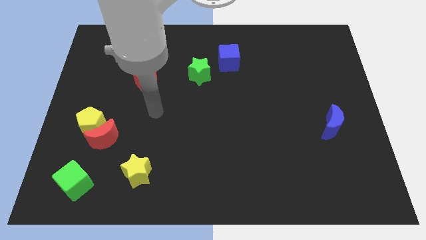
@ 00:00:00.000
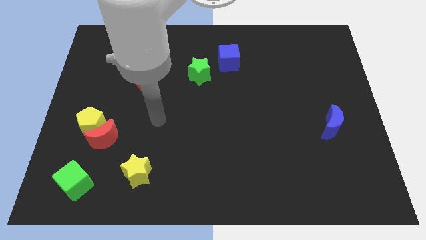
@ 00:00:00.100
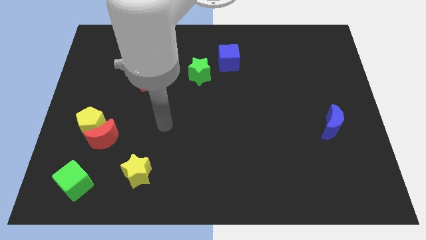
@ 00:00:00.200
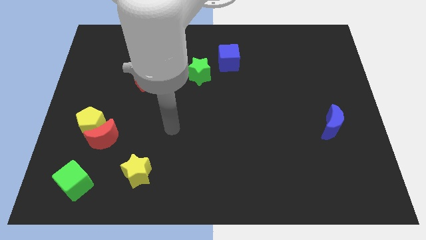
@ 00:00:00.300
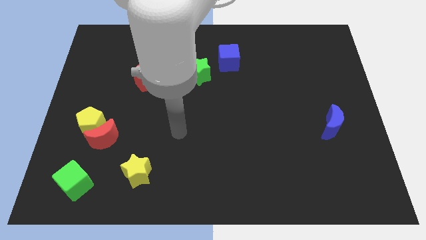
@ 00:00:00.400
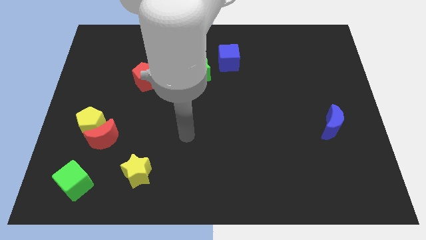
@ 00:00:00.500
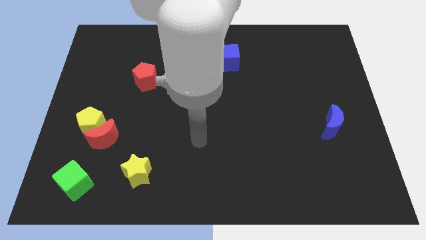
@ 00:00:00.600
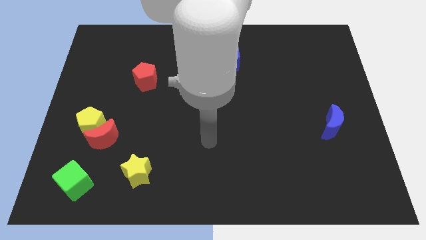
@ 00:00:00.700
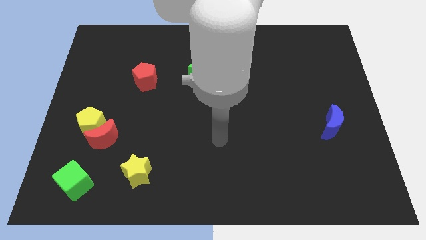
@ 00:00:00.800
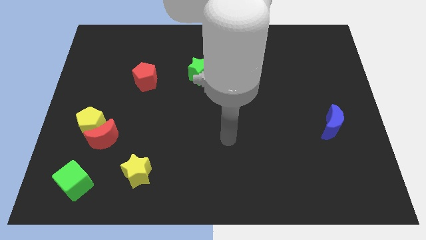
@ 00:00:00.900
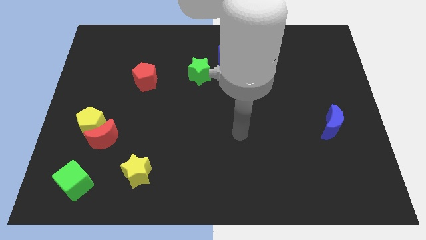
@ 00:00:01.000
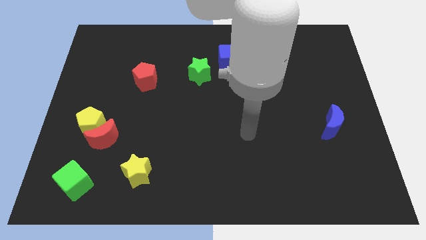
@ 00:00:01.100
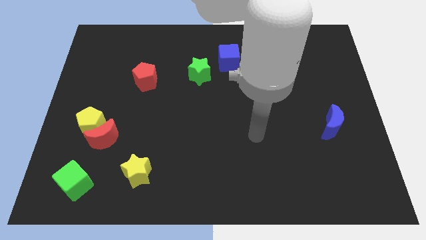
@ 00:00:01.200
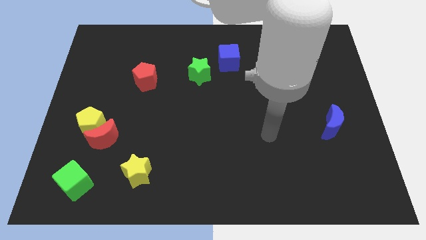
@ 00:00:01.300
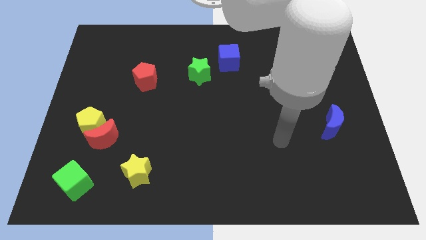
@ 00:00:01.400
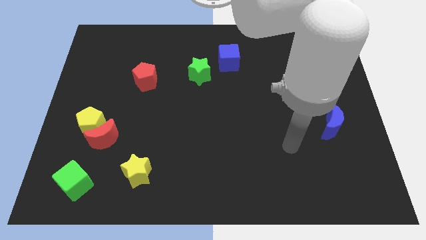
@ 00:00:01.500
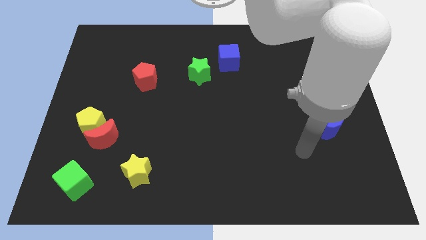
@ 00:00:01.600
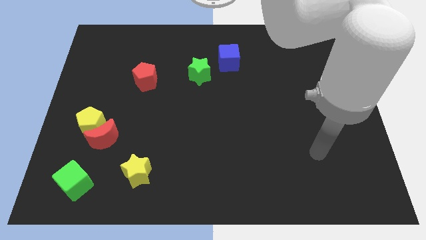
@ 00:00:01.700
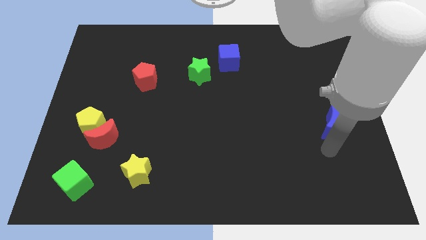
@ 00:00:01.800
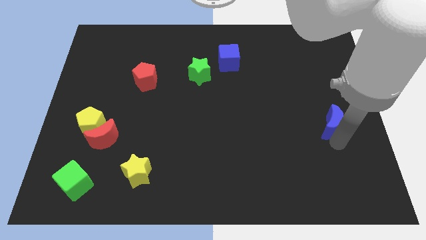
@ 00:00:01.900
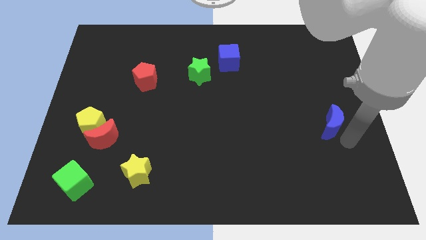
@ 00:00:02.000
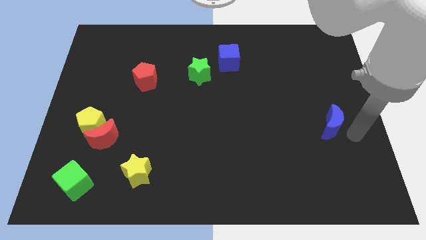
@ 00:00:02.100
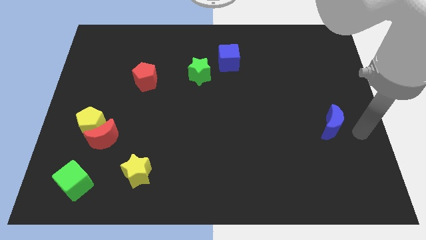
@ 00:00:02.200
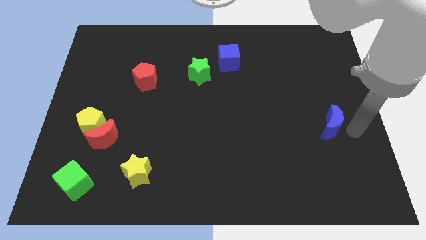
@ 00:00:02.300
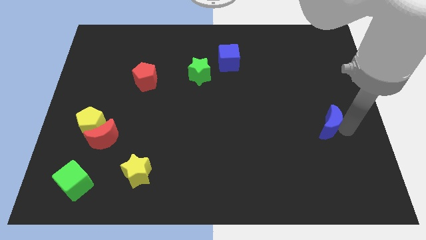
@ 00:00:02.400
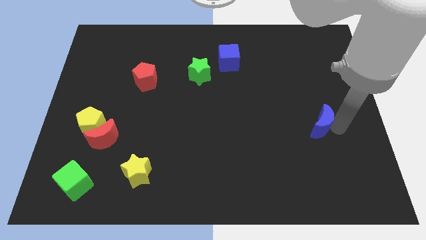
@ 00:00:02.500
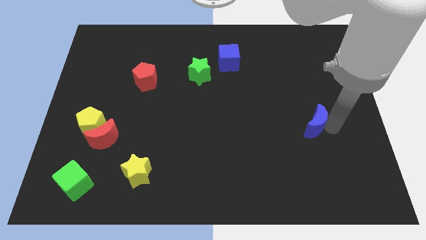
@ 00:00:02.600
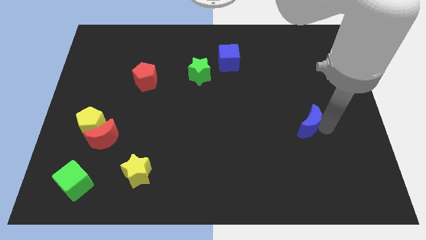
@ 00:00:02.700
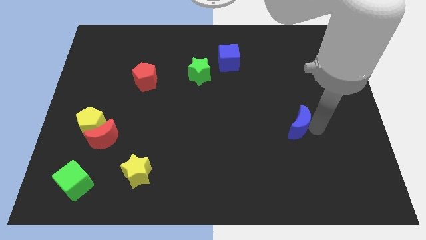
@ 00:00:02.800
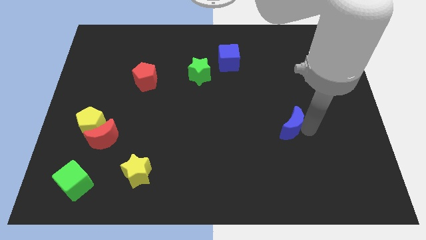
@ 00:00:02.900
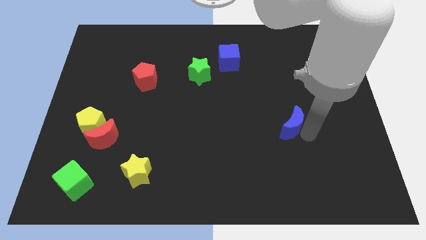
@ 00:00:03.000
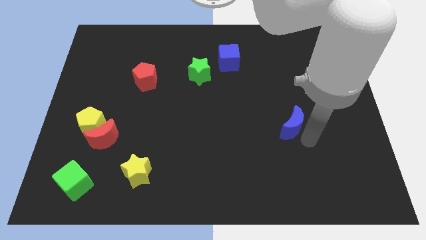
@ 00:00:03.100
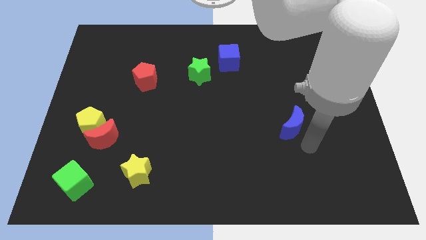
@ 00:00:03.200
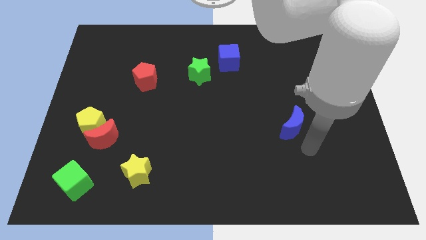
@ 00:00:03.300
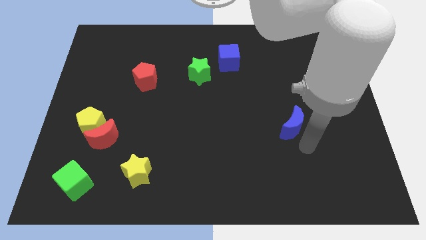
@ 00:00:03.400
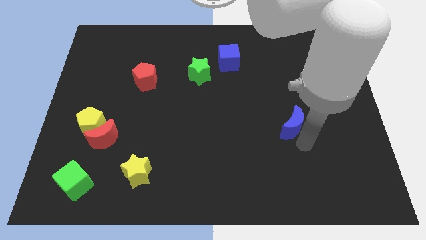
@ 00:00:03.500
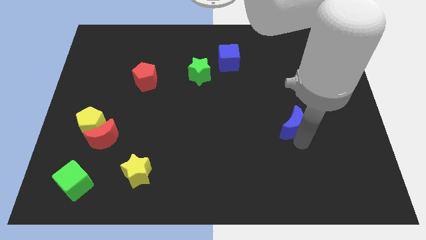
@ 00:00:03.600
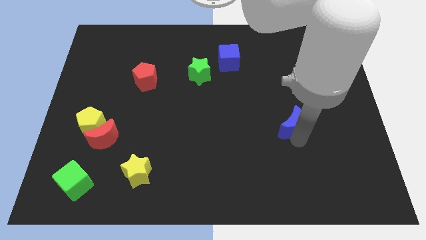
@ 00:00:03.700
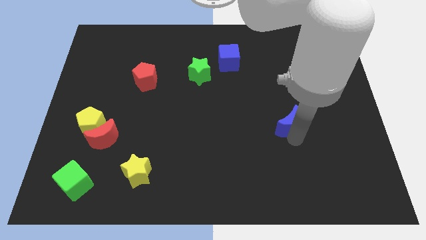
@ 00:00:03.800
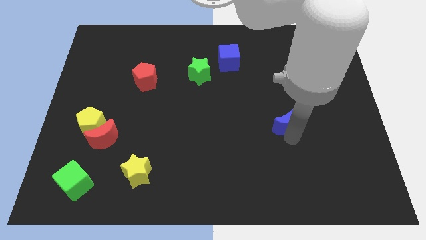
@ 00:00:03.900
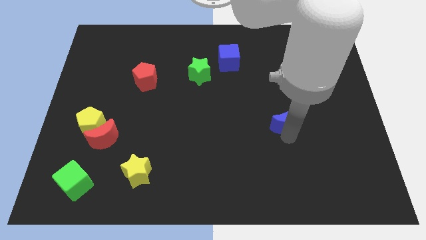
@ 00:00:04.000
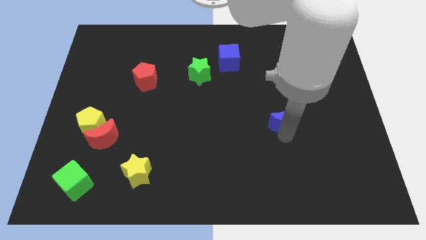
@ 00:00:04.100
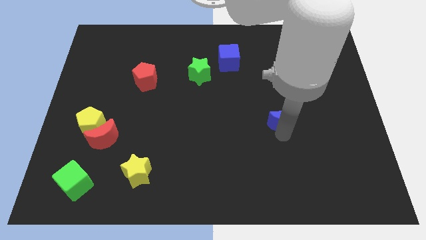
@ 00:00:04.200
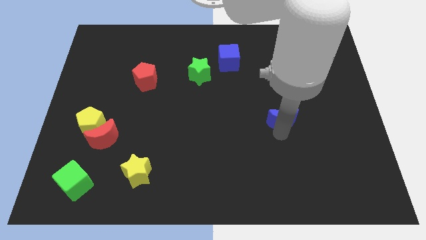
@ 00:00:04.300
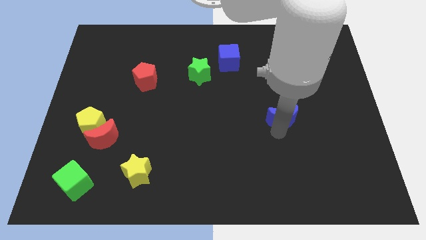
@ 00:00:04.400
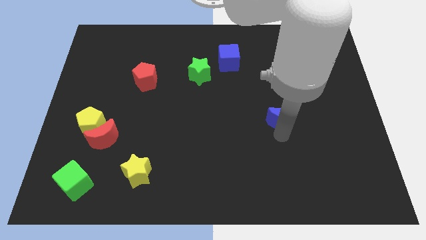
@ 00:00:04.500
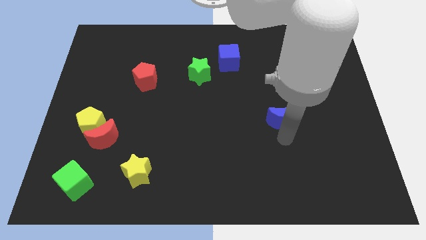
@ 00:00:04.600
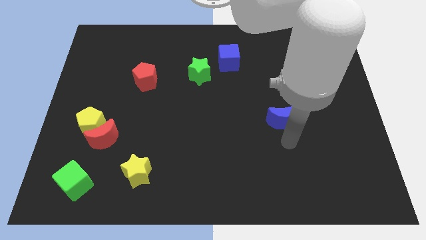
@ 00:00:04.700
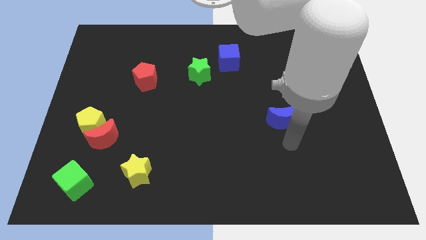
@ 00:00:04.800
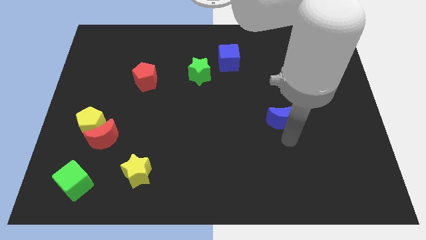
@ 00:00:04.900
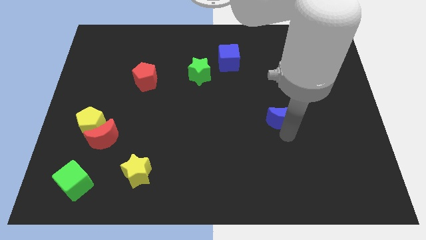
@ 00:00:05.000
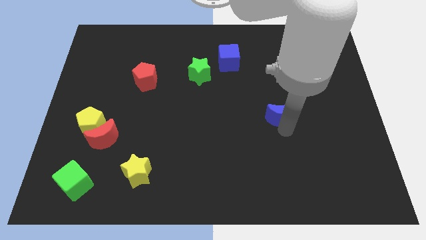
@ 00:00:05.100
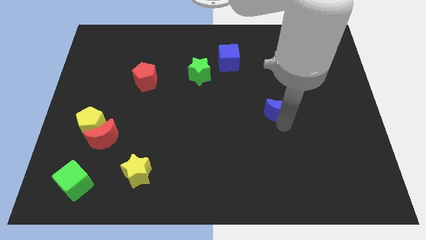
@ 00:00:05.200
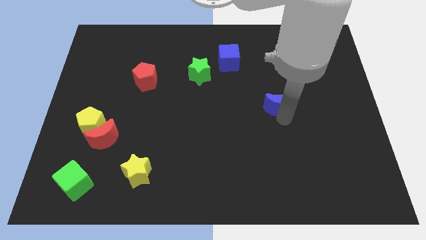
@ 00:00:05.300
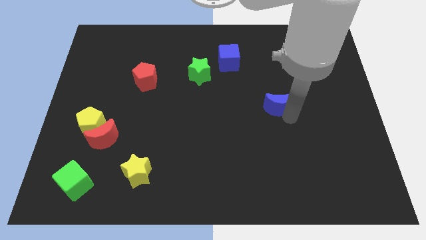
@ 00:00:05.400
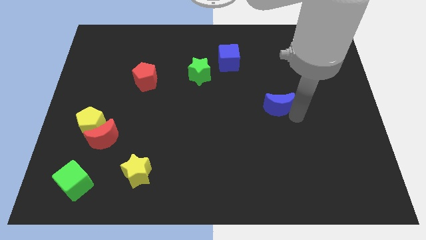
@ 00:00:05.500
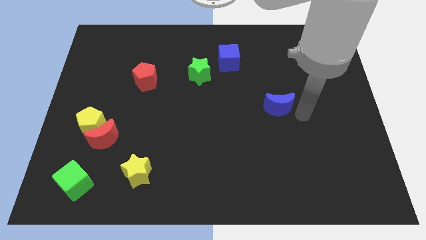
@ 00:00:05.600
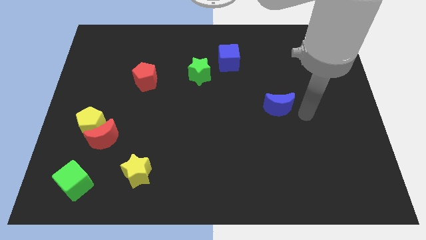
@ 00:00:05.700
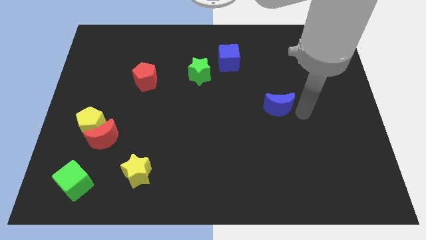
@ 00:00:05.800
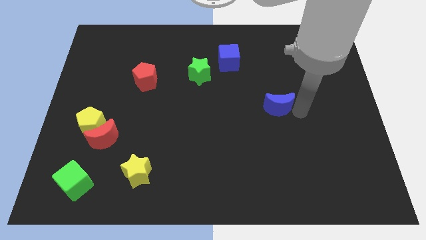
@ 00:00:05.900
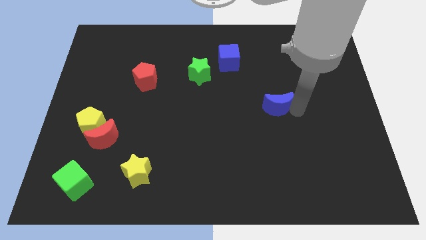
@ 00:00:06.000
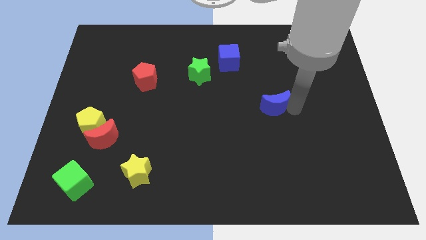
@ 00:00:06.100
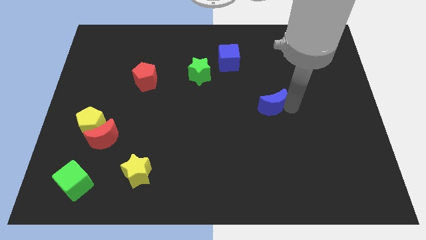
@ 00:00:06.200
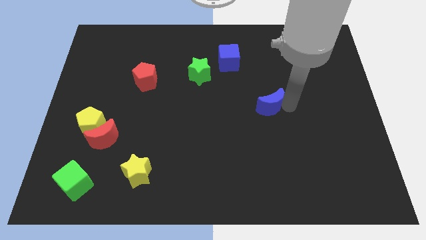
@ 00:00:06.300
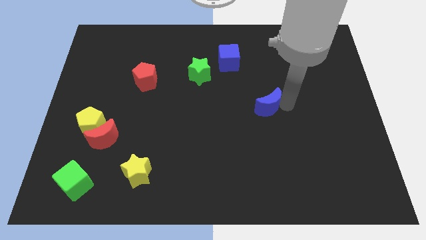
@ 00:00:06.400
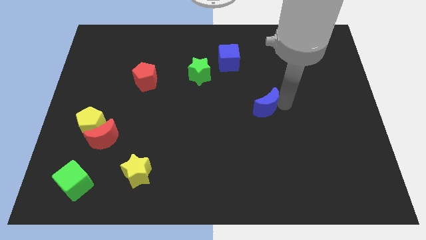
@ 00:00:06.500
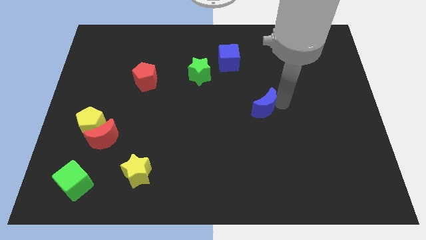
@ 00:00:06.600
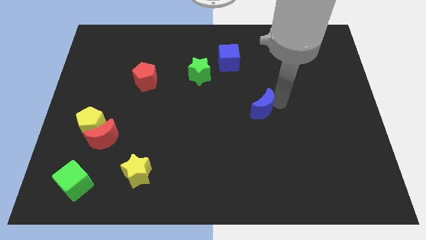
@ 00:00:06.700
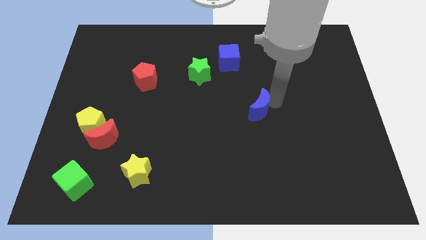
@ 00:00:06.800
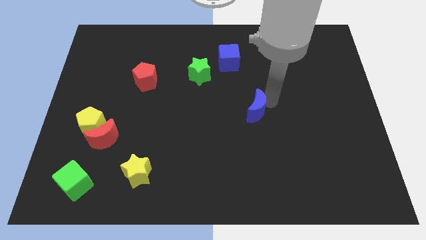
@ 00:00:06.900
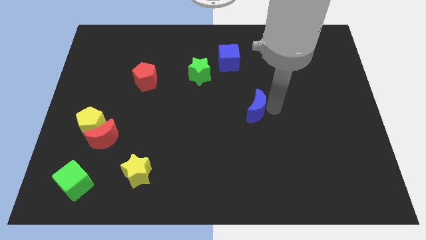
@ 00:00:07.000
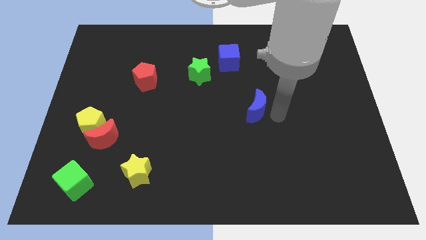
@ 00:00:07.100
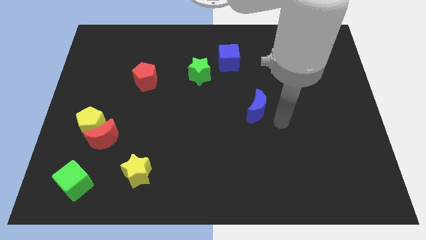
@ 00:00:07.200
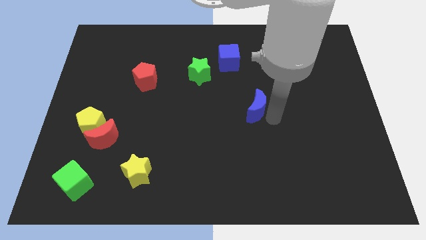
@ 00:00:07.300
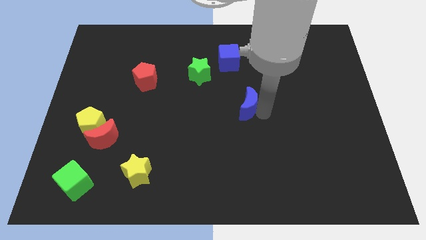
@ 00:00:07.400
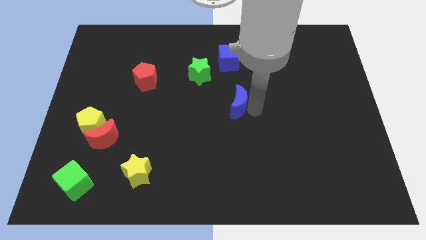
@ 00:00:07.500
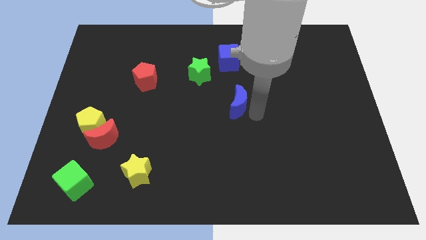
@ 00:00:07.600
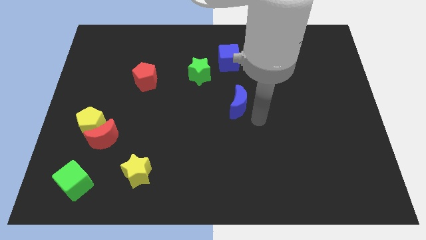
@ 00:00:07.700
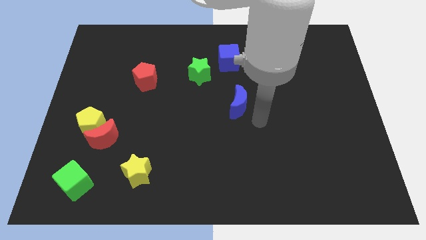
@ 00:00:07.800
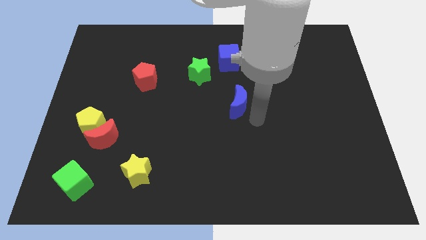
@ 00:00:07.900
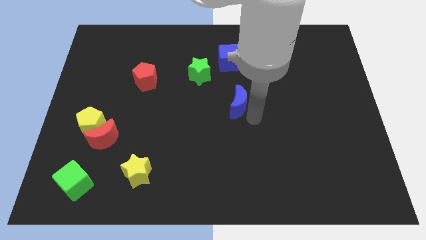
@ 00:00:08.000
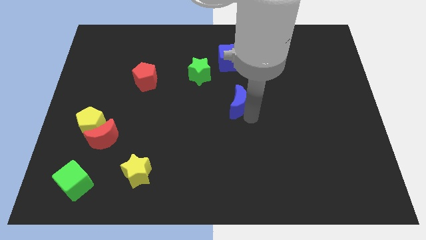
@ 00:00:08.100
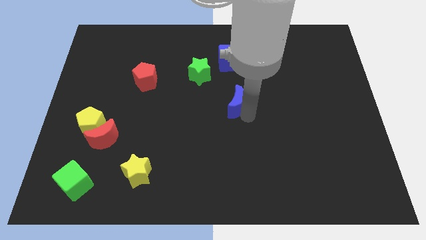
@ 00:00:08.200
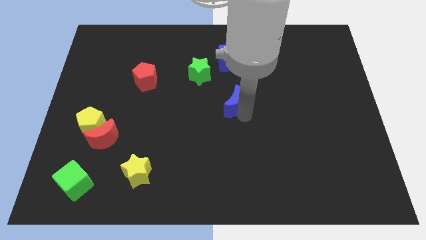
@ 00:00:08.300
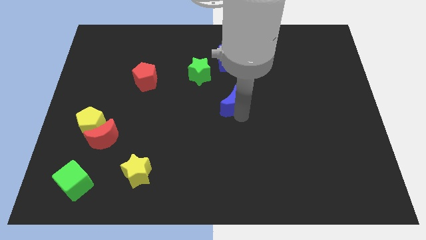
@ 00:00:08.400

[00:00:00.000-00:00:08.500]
put the blue moon to the bottom right side of the green star
